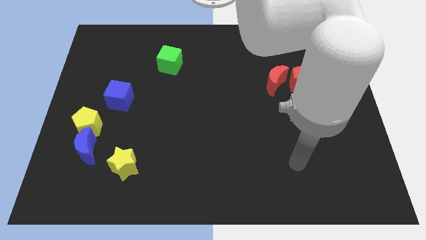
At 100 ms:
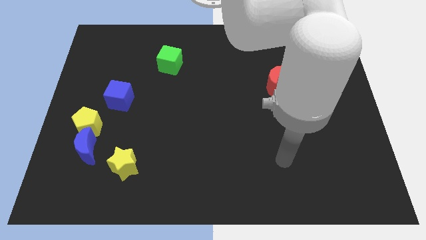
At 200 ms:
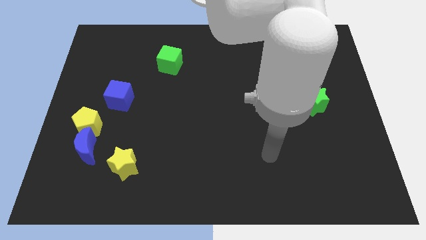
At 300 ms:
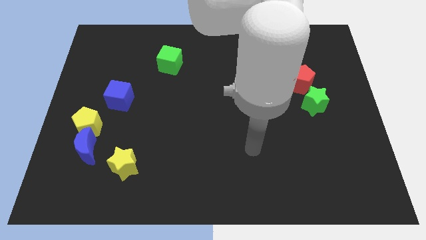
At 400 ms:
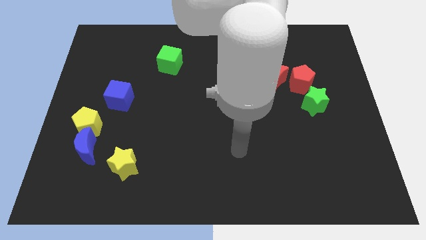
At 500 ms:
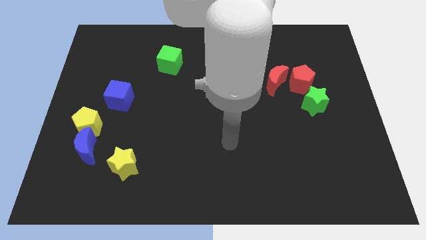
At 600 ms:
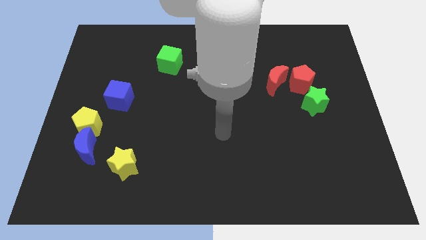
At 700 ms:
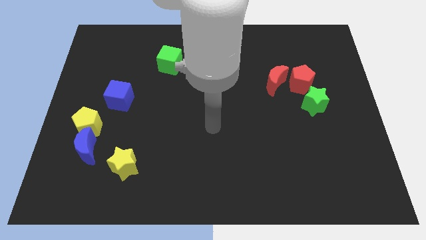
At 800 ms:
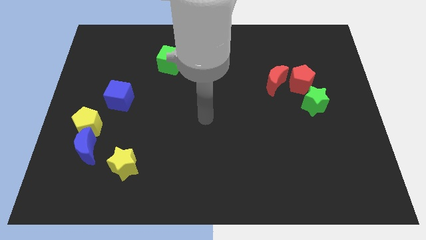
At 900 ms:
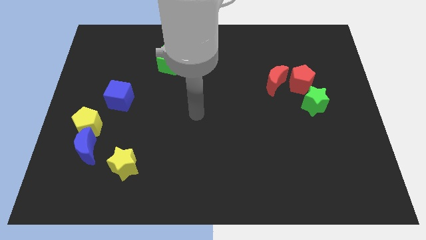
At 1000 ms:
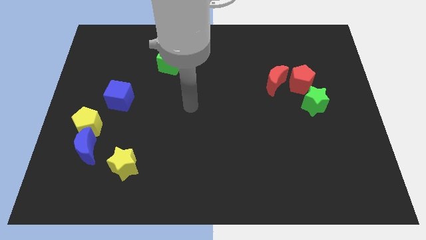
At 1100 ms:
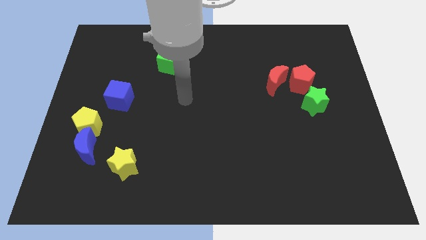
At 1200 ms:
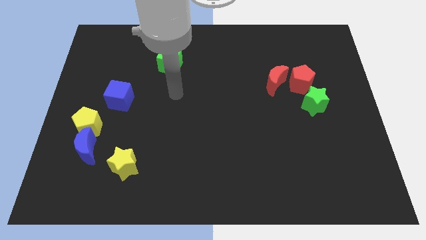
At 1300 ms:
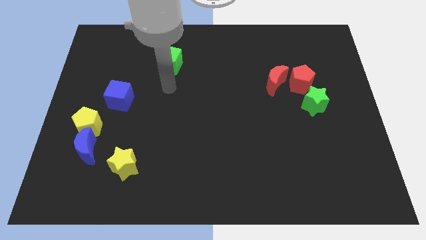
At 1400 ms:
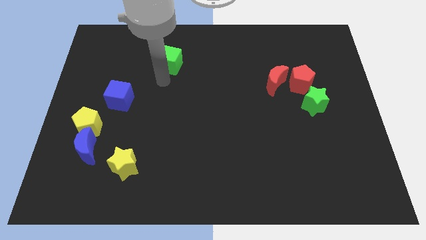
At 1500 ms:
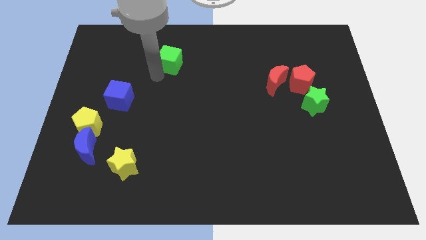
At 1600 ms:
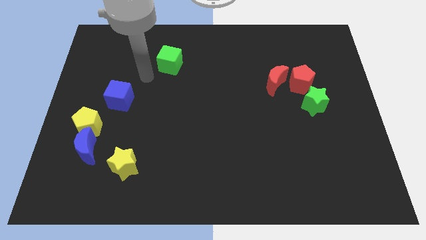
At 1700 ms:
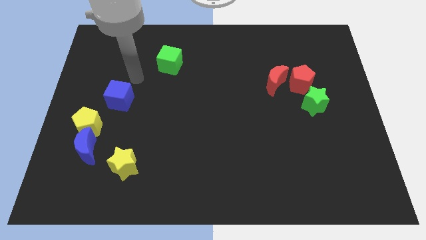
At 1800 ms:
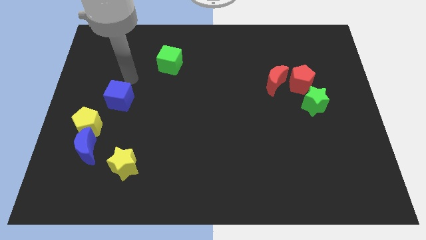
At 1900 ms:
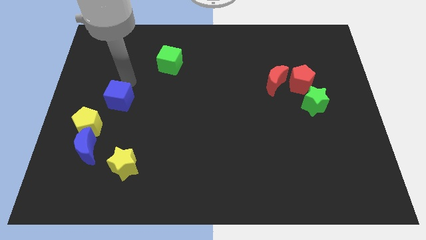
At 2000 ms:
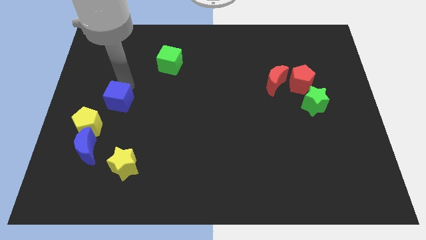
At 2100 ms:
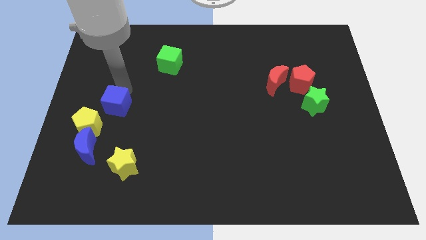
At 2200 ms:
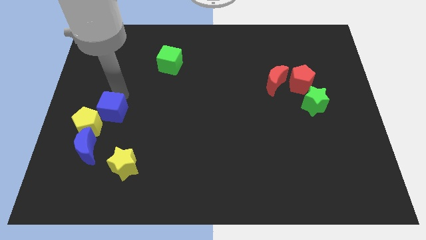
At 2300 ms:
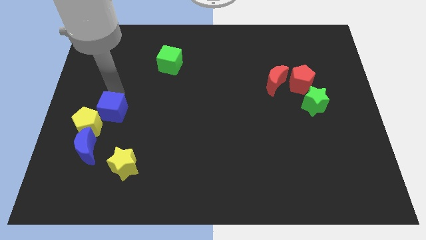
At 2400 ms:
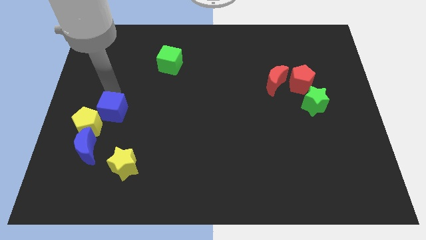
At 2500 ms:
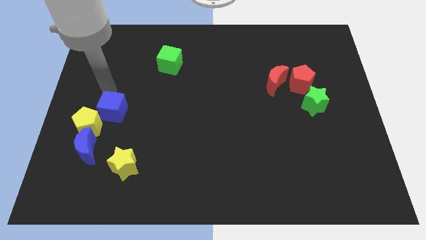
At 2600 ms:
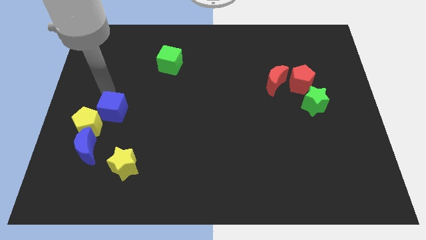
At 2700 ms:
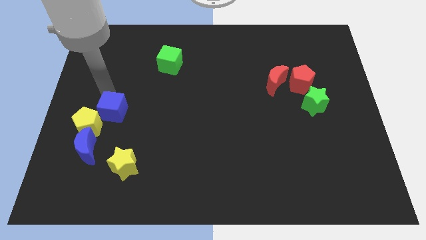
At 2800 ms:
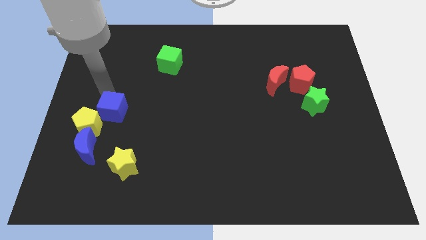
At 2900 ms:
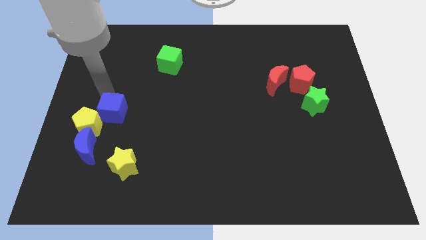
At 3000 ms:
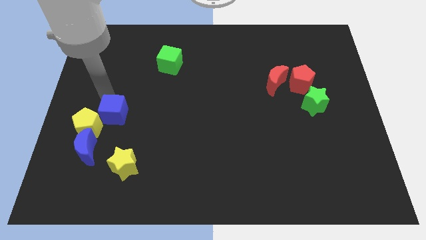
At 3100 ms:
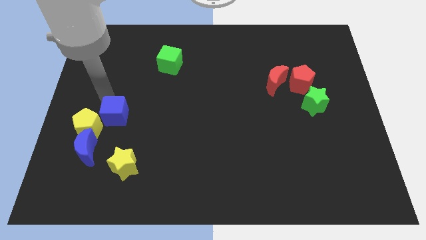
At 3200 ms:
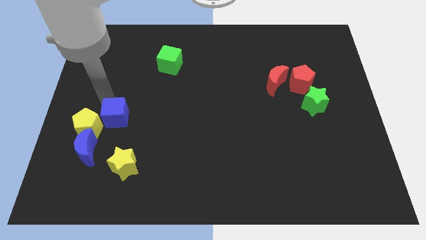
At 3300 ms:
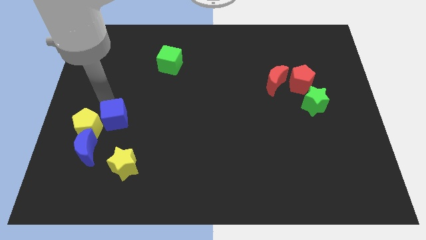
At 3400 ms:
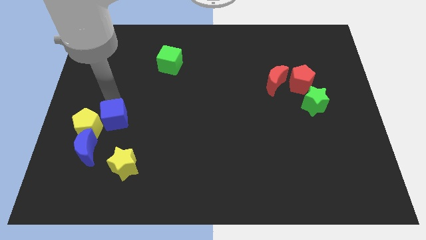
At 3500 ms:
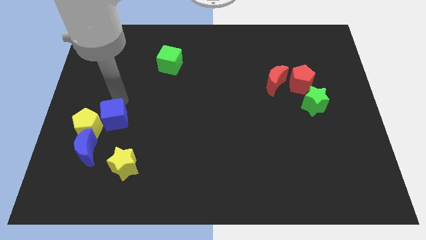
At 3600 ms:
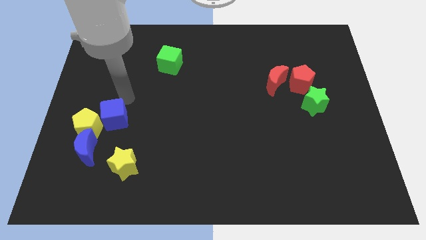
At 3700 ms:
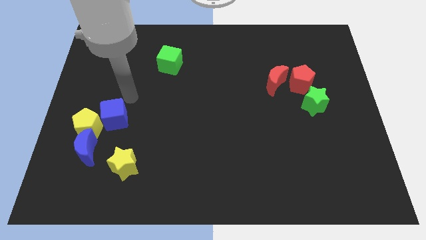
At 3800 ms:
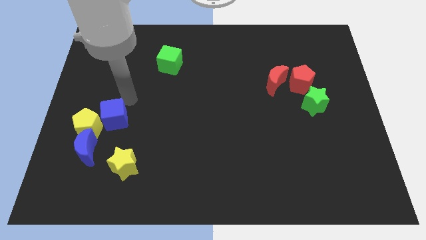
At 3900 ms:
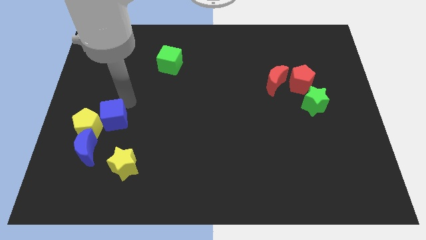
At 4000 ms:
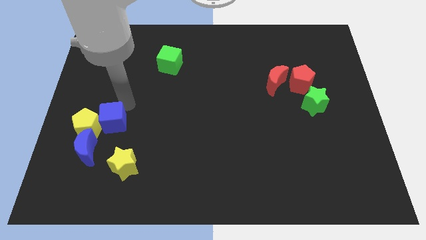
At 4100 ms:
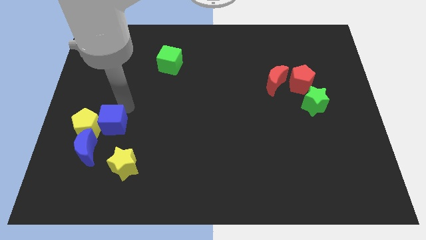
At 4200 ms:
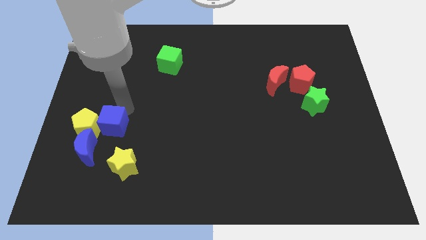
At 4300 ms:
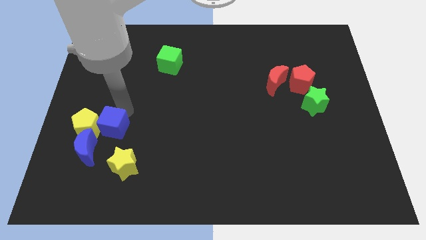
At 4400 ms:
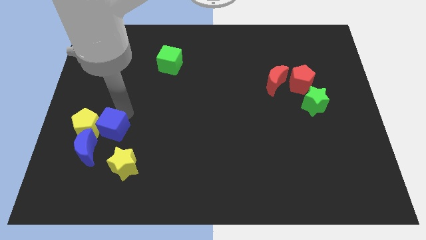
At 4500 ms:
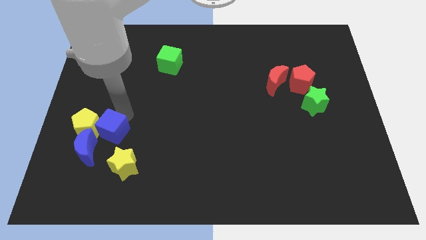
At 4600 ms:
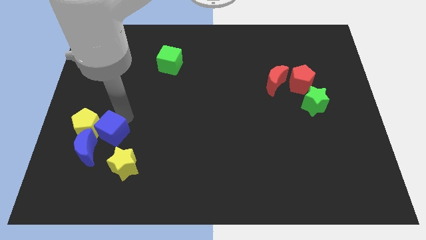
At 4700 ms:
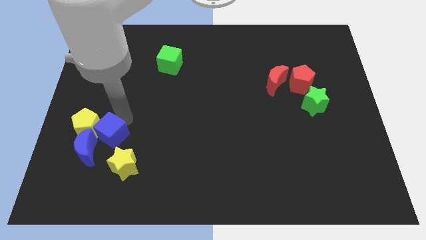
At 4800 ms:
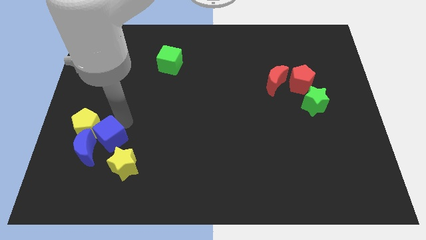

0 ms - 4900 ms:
move the blue cube to the blue moon

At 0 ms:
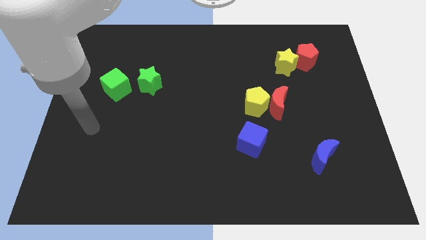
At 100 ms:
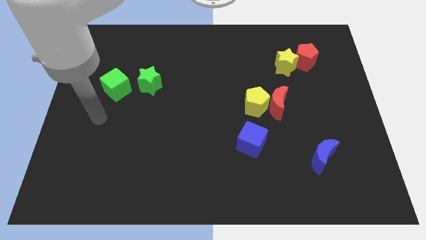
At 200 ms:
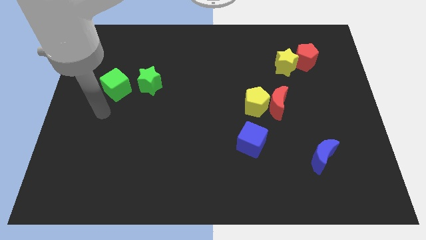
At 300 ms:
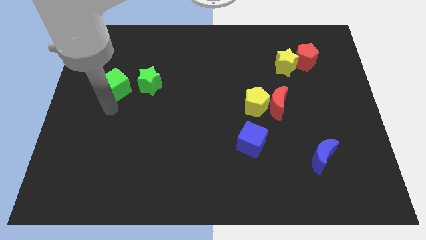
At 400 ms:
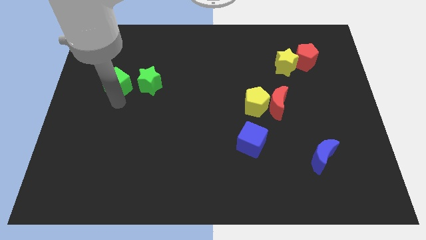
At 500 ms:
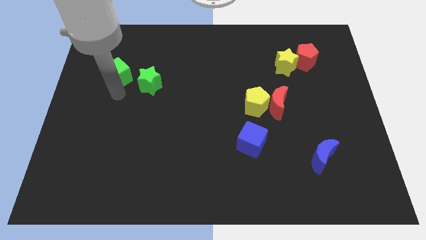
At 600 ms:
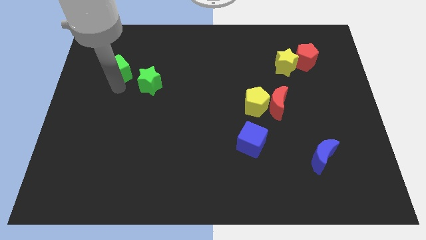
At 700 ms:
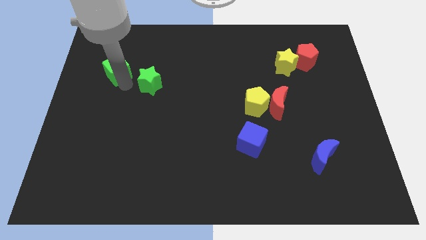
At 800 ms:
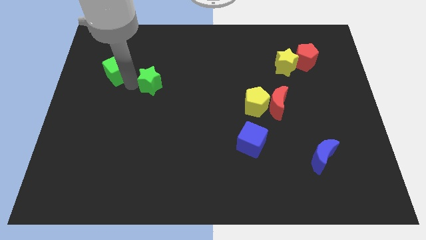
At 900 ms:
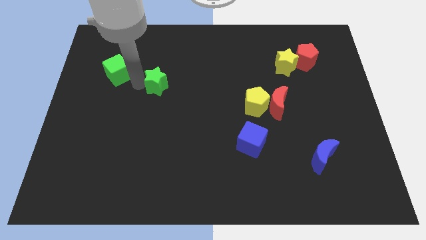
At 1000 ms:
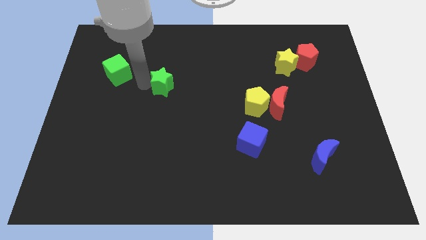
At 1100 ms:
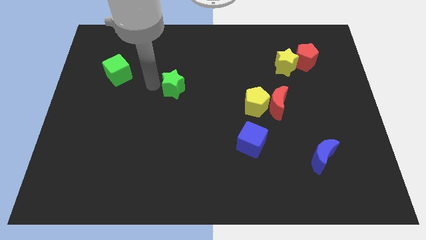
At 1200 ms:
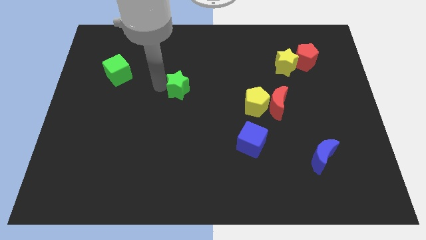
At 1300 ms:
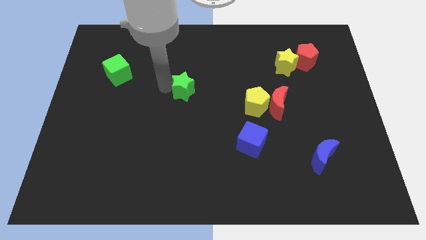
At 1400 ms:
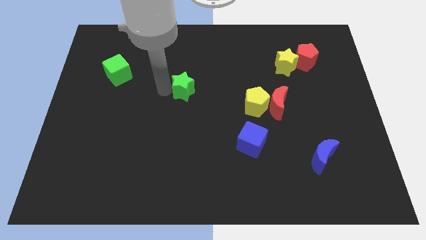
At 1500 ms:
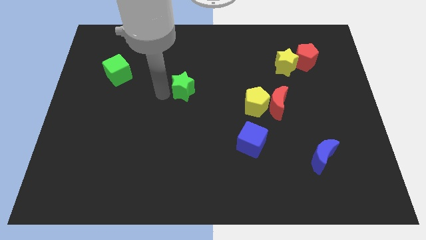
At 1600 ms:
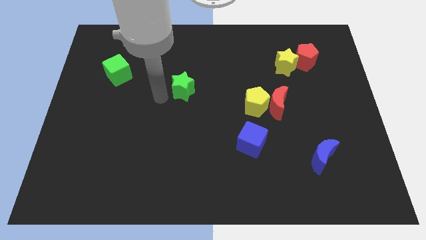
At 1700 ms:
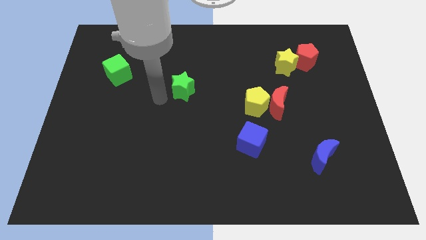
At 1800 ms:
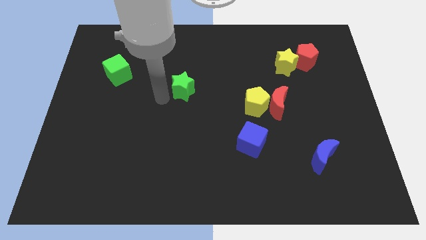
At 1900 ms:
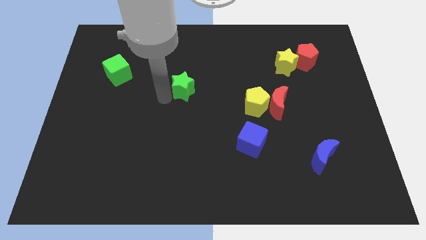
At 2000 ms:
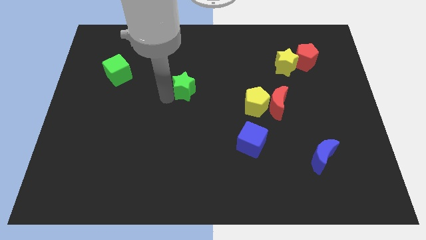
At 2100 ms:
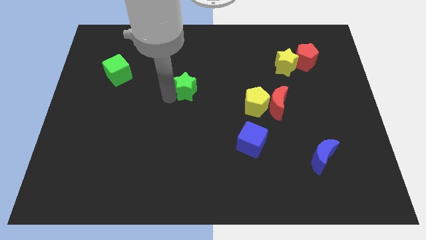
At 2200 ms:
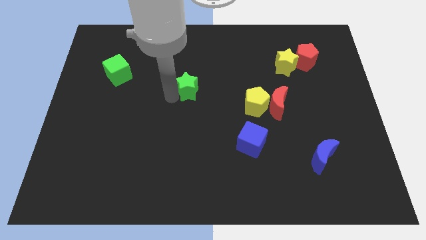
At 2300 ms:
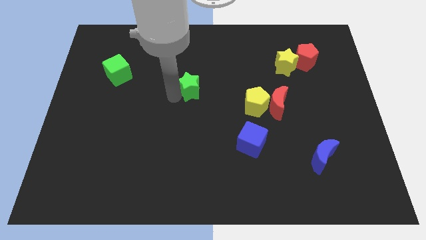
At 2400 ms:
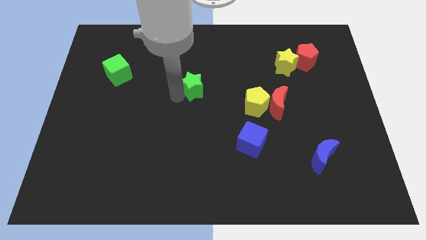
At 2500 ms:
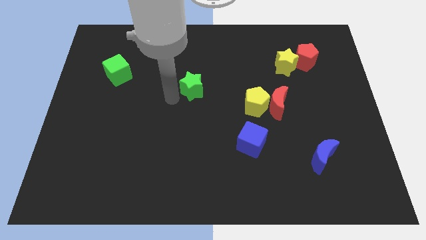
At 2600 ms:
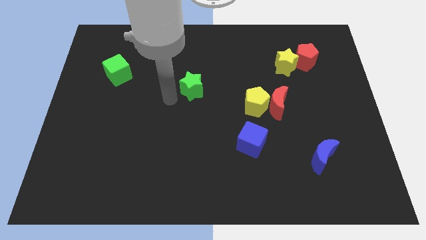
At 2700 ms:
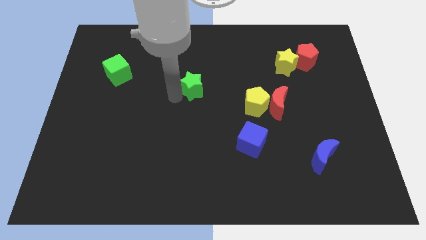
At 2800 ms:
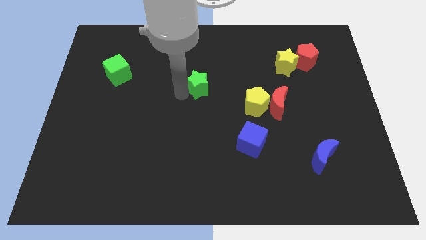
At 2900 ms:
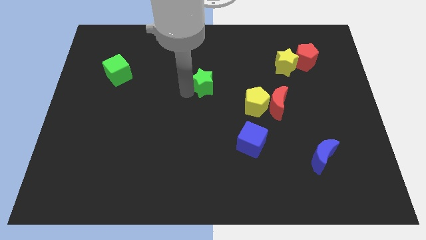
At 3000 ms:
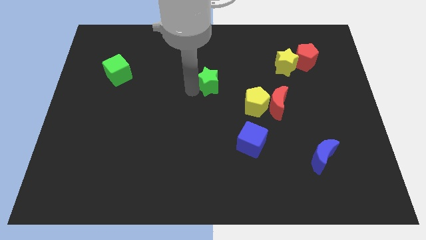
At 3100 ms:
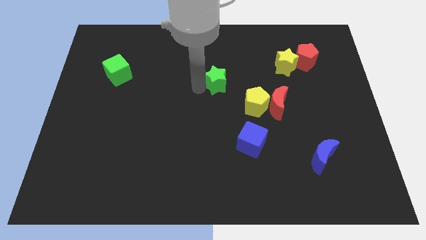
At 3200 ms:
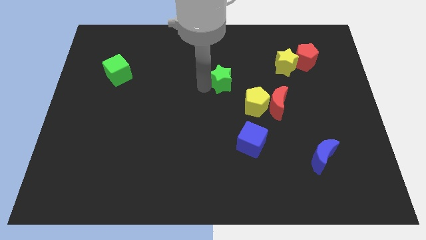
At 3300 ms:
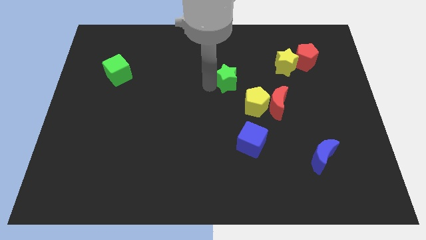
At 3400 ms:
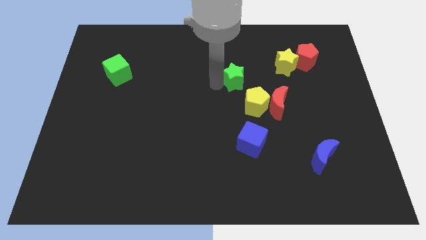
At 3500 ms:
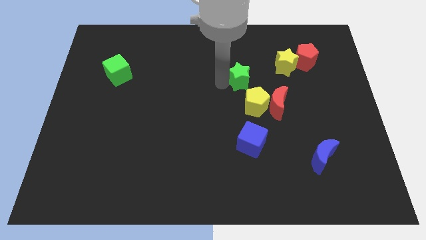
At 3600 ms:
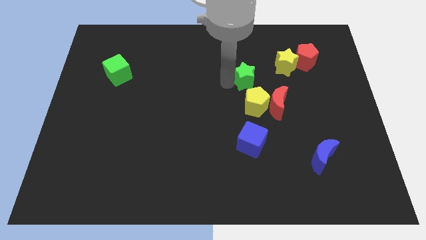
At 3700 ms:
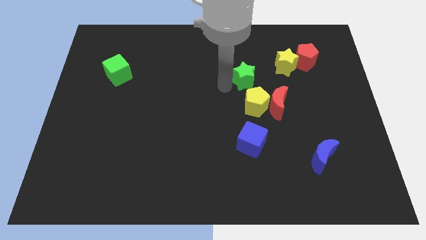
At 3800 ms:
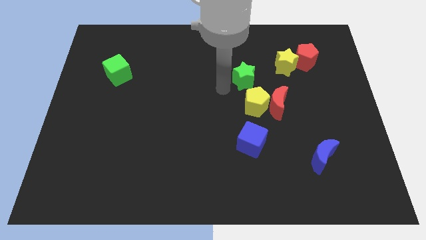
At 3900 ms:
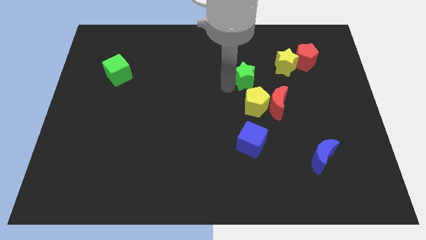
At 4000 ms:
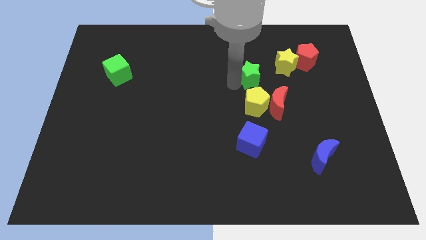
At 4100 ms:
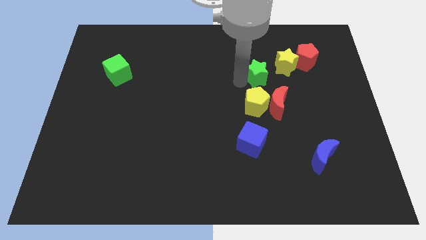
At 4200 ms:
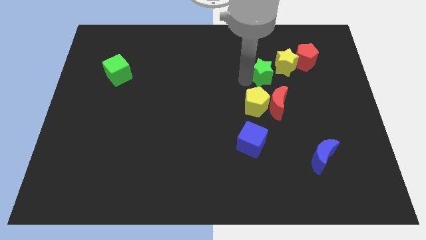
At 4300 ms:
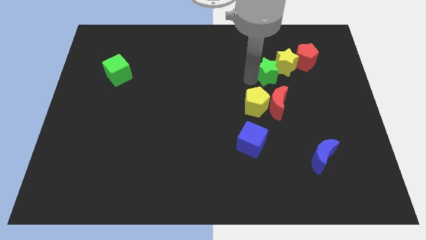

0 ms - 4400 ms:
move the green star next to the yellow star
